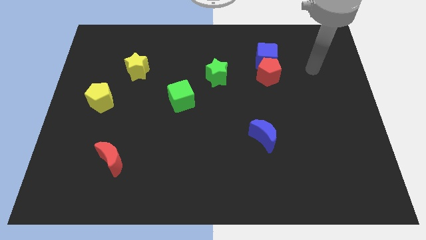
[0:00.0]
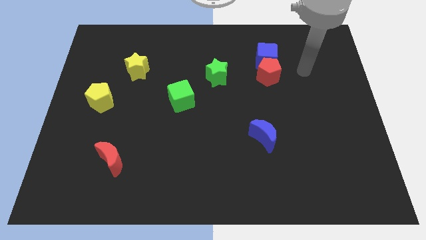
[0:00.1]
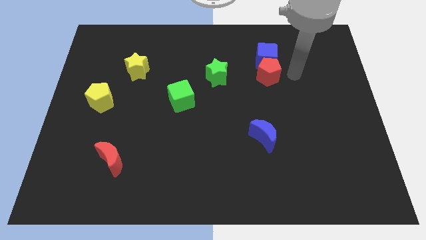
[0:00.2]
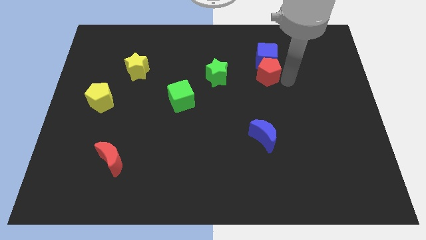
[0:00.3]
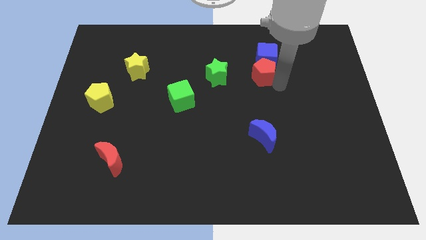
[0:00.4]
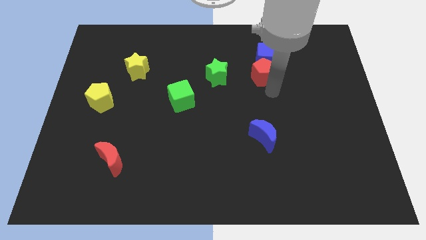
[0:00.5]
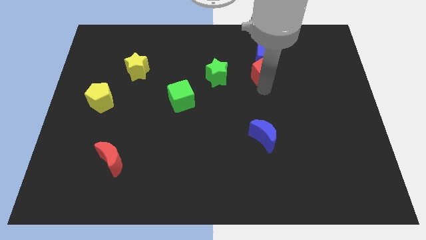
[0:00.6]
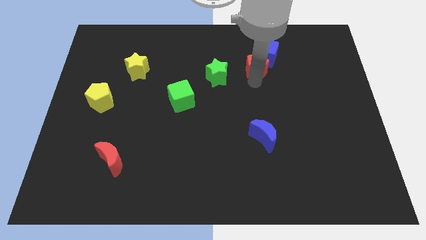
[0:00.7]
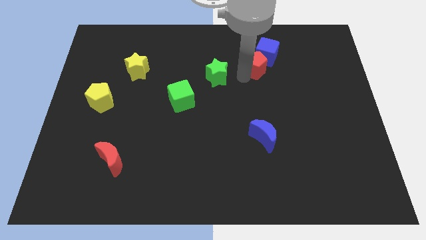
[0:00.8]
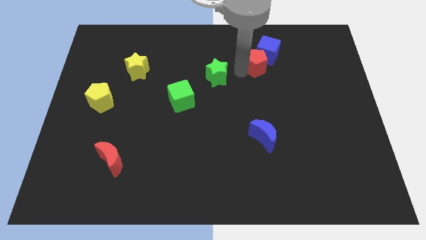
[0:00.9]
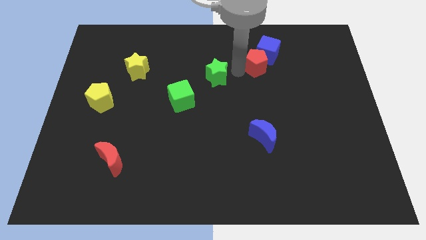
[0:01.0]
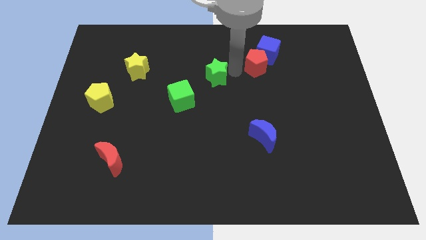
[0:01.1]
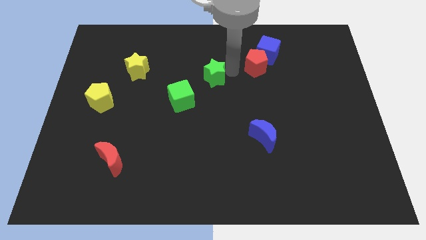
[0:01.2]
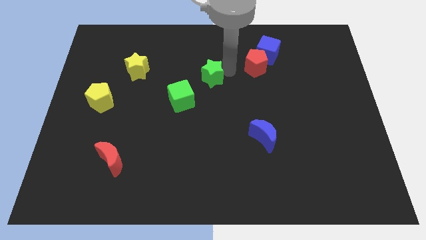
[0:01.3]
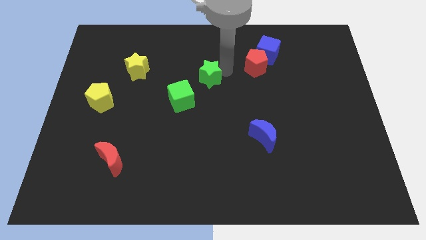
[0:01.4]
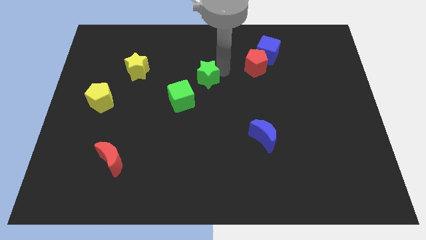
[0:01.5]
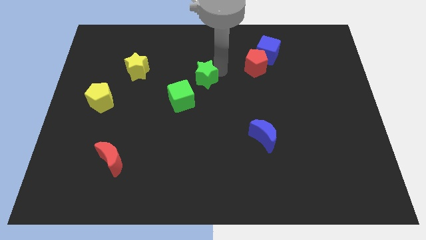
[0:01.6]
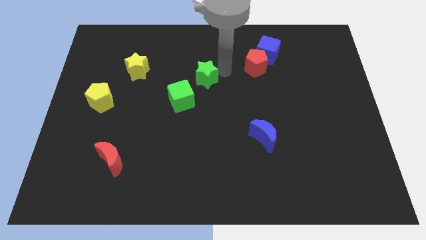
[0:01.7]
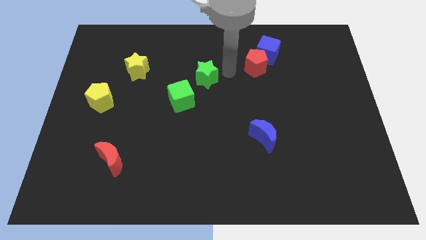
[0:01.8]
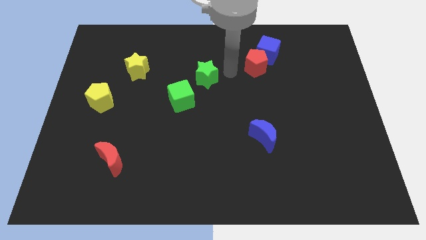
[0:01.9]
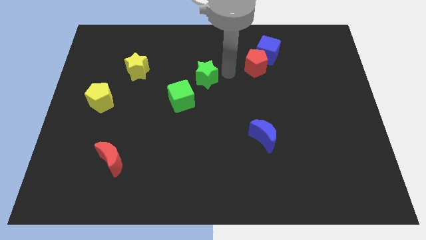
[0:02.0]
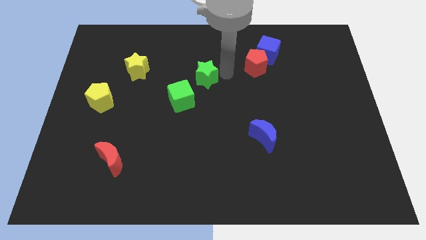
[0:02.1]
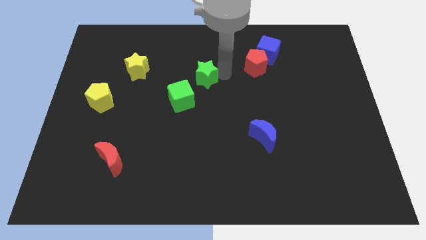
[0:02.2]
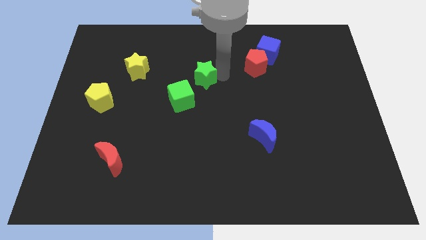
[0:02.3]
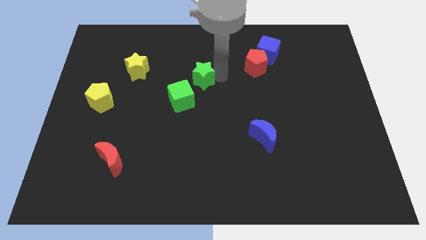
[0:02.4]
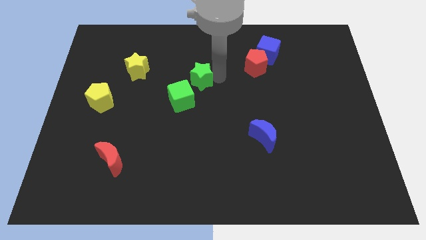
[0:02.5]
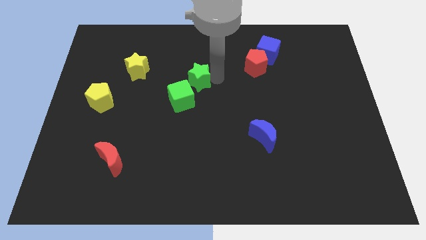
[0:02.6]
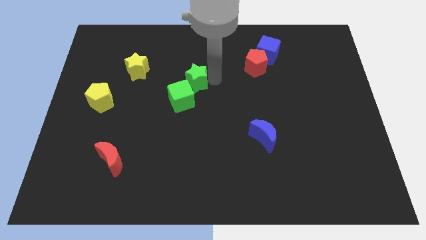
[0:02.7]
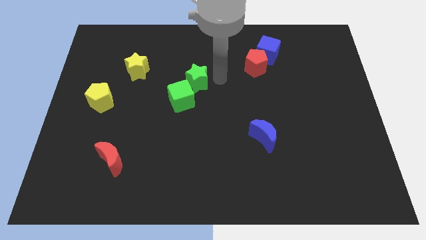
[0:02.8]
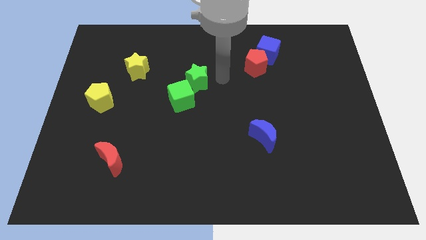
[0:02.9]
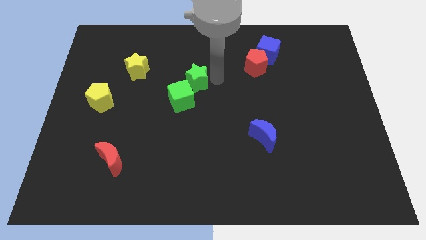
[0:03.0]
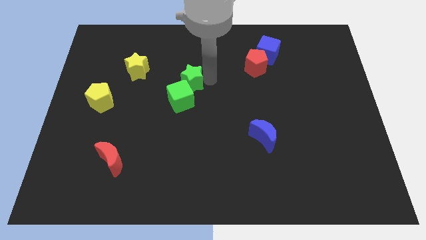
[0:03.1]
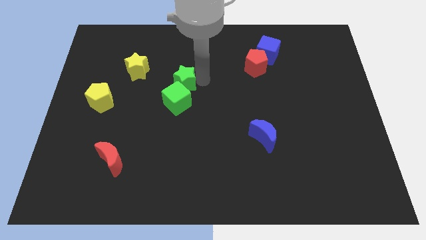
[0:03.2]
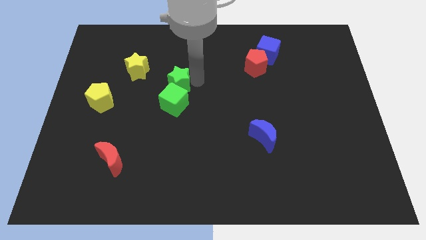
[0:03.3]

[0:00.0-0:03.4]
move the green star a little downwards and then left

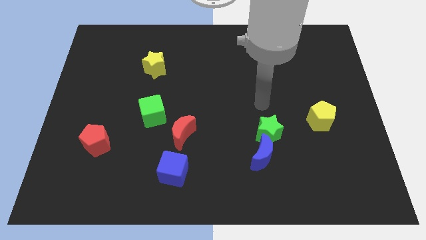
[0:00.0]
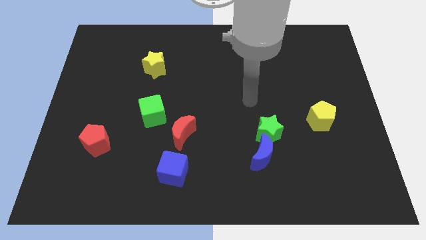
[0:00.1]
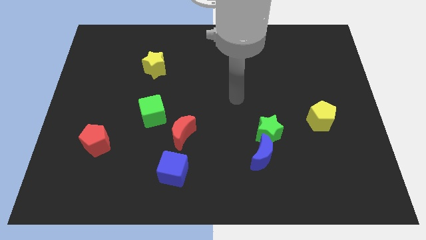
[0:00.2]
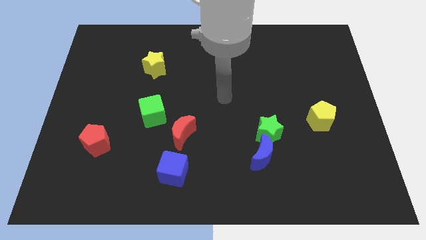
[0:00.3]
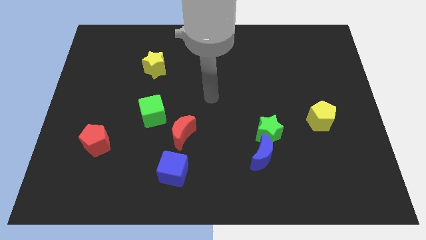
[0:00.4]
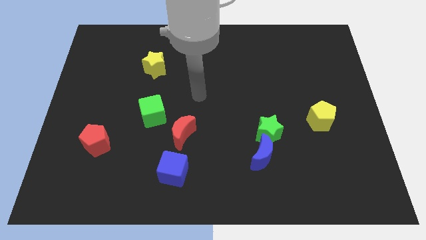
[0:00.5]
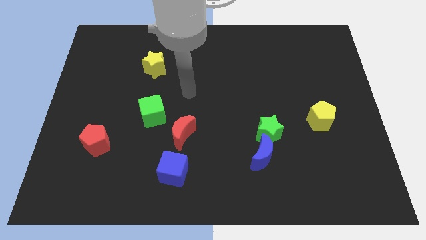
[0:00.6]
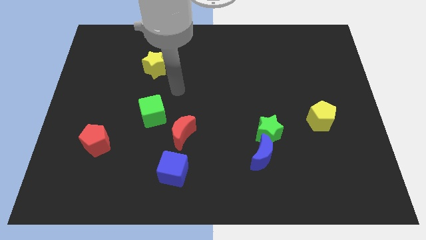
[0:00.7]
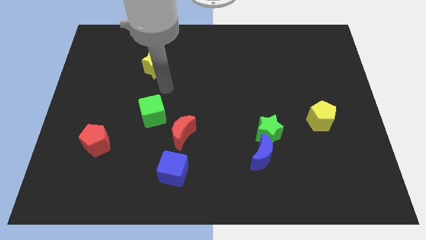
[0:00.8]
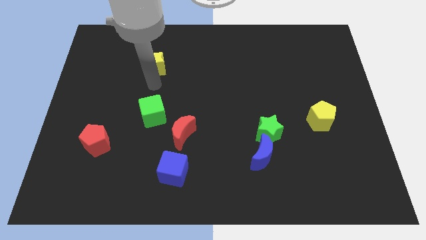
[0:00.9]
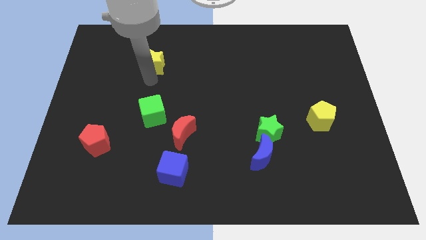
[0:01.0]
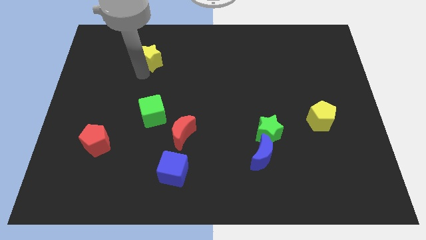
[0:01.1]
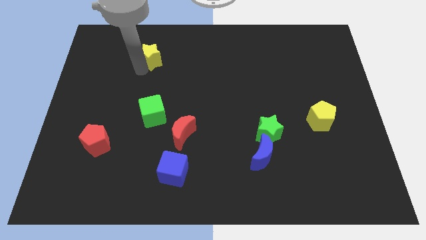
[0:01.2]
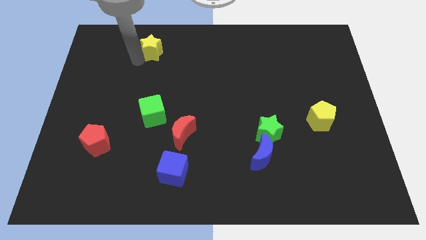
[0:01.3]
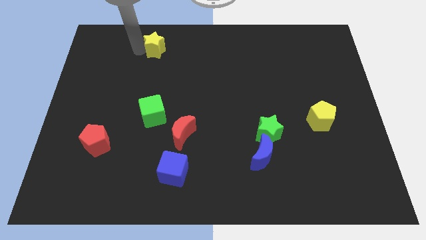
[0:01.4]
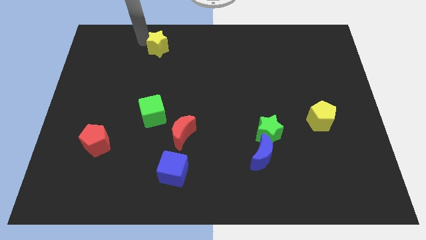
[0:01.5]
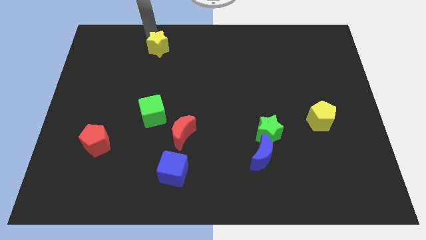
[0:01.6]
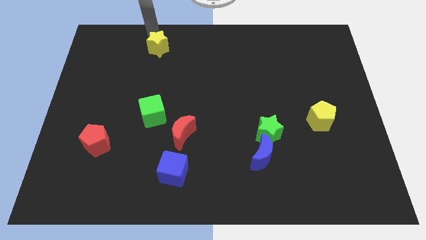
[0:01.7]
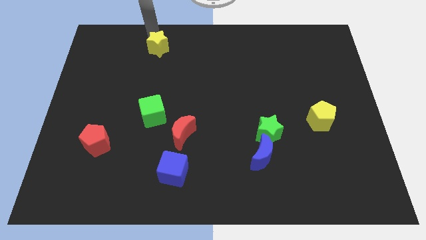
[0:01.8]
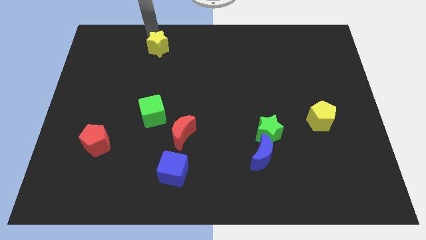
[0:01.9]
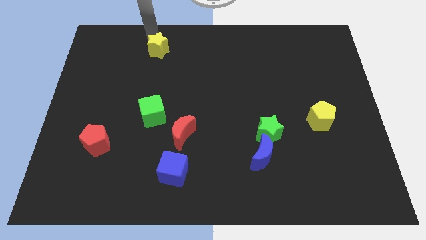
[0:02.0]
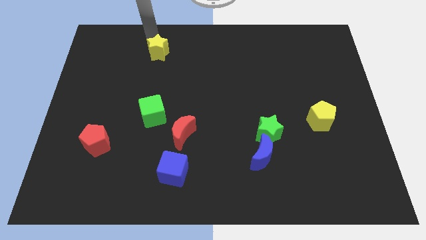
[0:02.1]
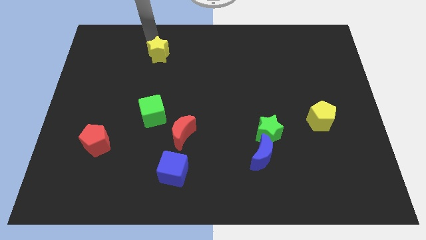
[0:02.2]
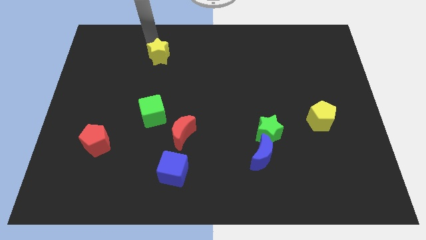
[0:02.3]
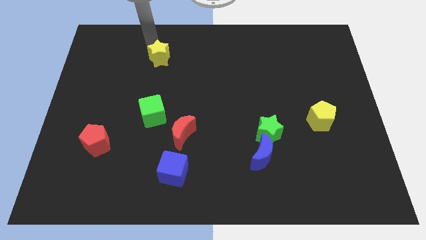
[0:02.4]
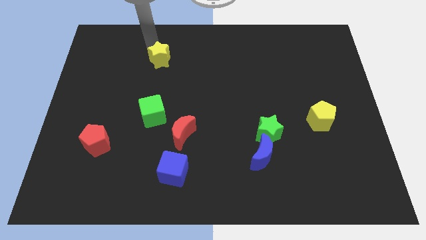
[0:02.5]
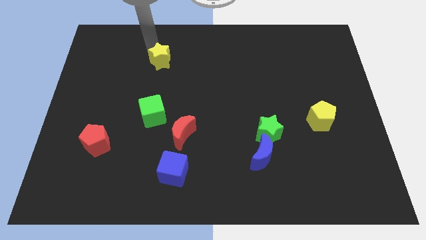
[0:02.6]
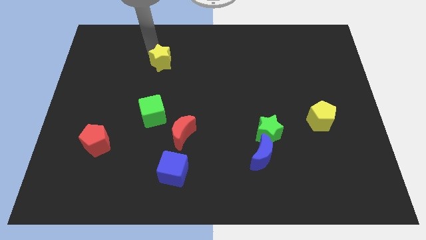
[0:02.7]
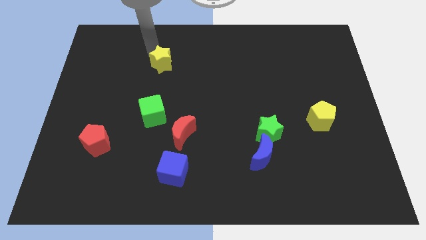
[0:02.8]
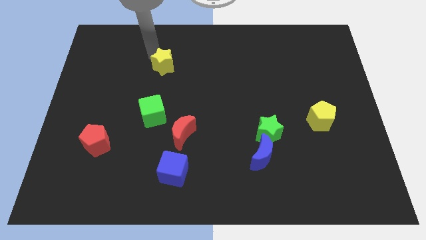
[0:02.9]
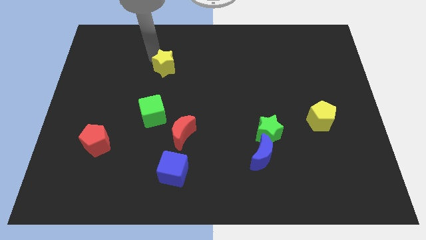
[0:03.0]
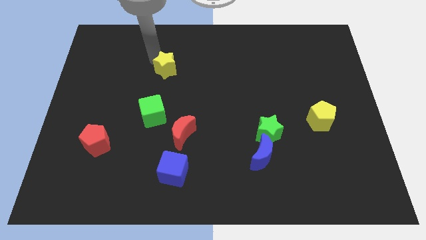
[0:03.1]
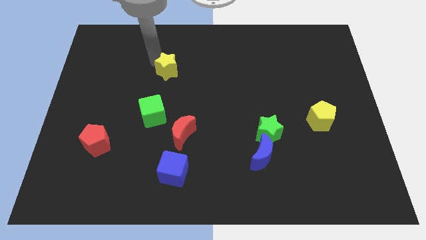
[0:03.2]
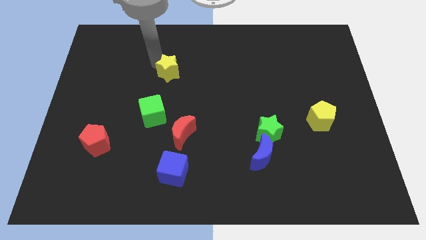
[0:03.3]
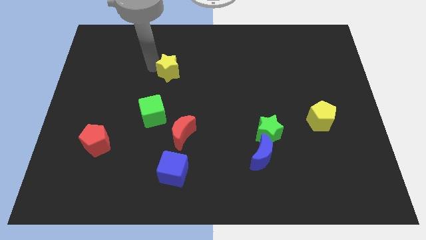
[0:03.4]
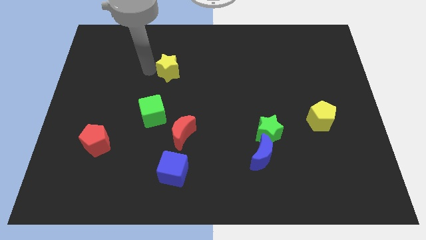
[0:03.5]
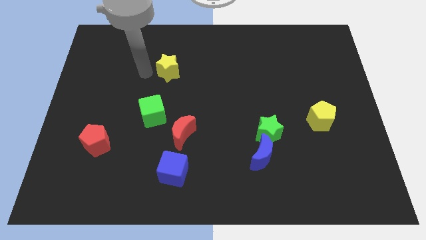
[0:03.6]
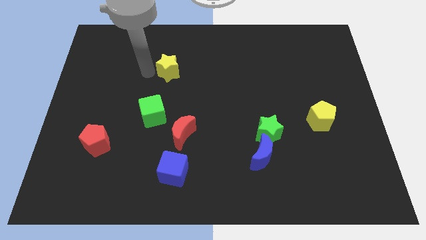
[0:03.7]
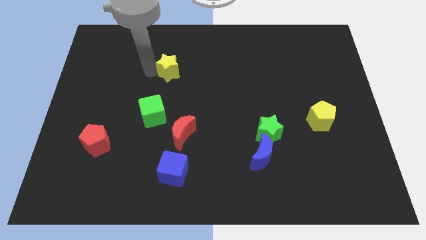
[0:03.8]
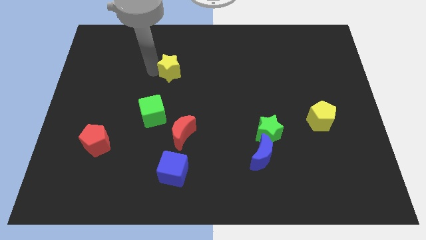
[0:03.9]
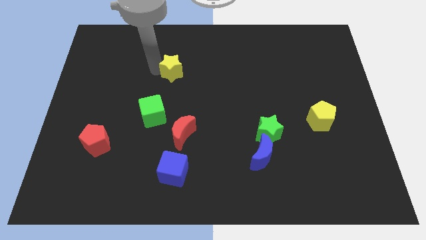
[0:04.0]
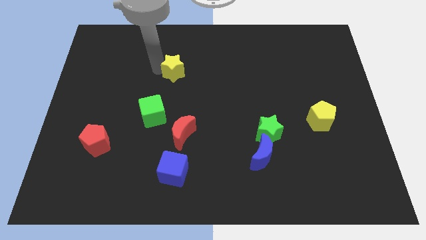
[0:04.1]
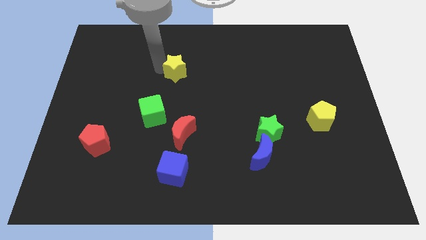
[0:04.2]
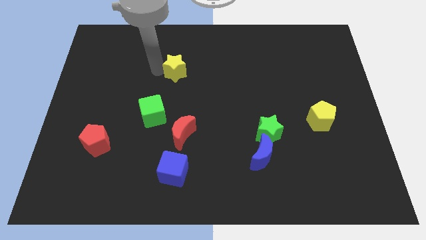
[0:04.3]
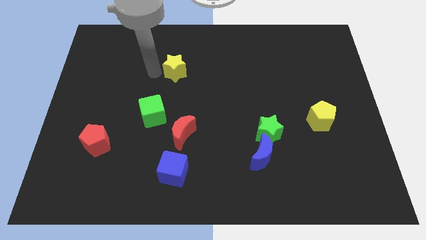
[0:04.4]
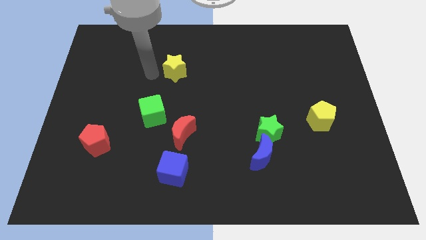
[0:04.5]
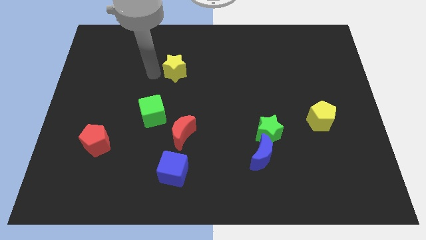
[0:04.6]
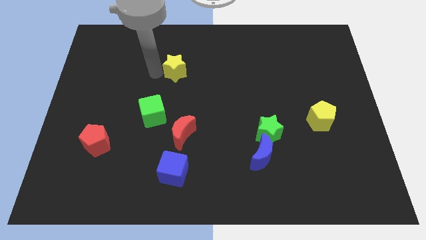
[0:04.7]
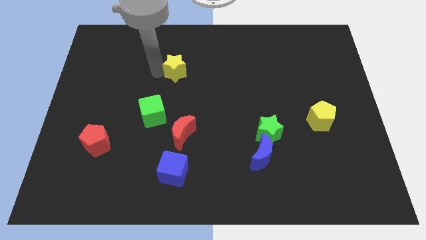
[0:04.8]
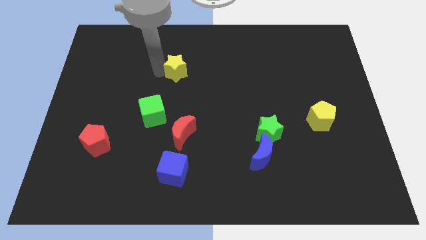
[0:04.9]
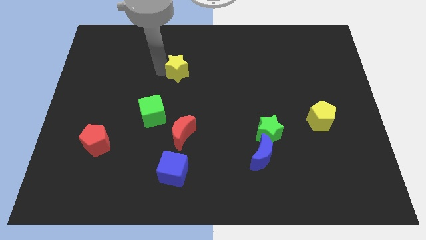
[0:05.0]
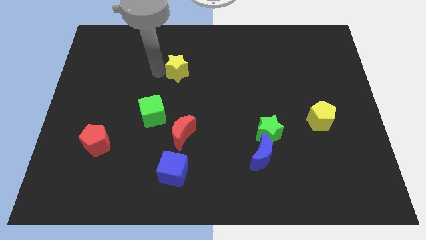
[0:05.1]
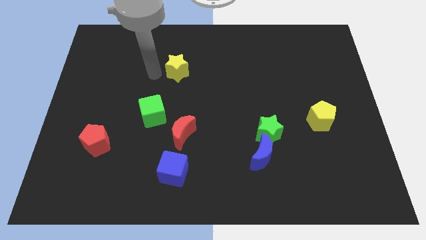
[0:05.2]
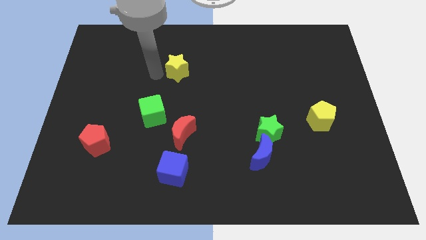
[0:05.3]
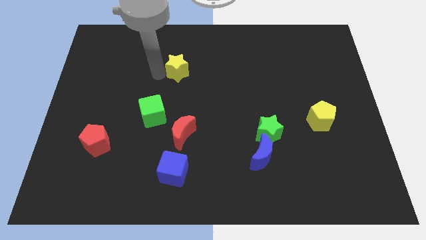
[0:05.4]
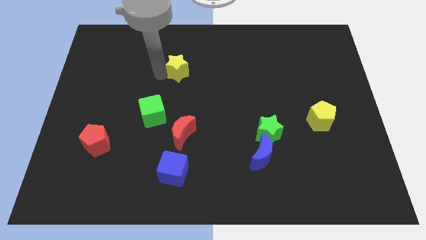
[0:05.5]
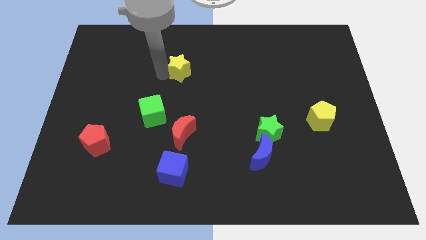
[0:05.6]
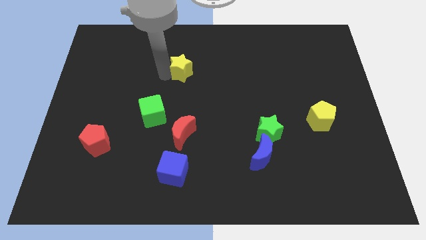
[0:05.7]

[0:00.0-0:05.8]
push the yellow star a little bit right
